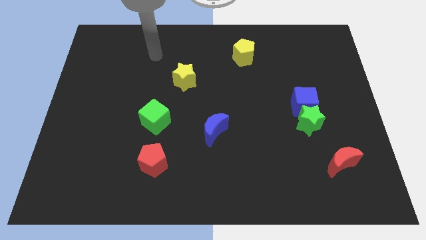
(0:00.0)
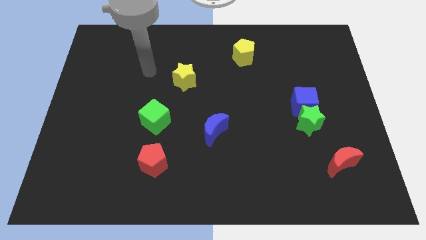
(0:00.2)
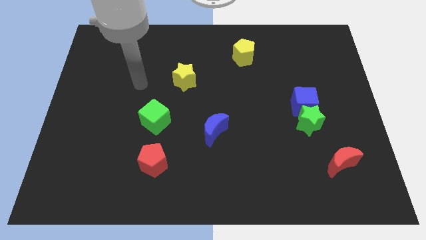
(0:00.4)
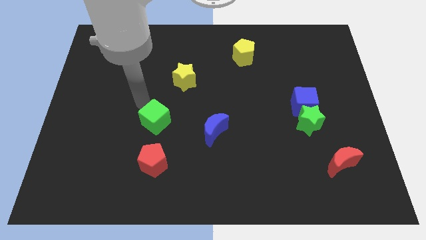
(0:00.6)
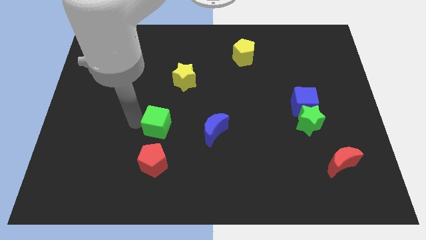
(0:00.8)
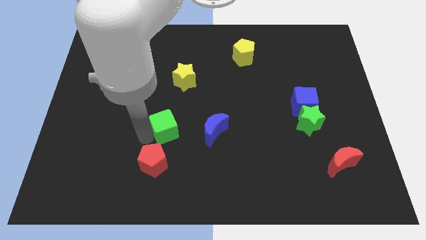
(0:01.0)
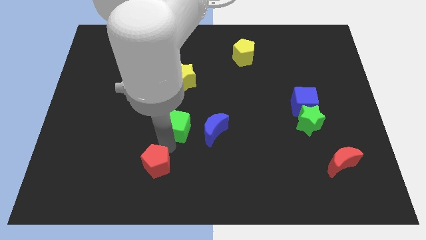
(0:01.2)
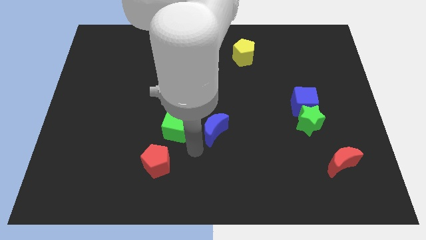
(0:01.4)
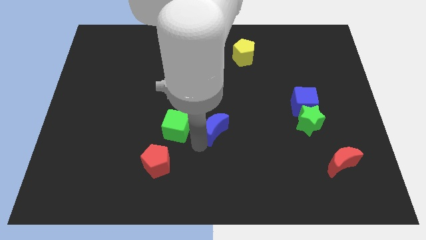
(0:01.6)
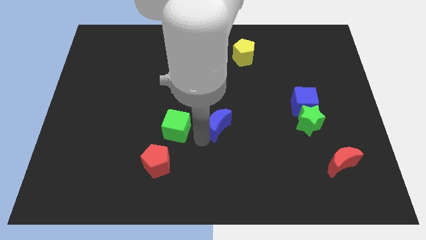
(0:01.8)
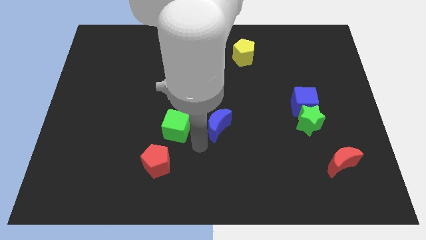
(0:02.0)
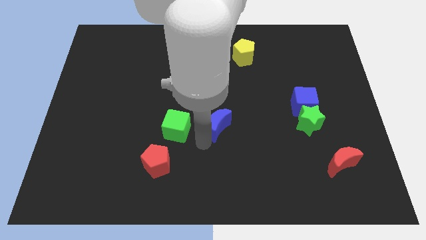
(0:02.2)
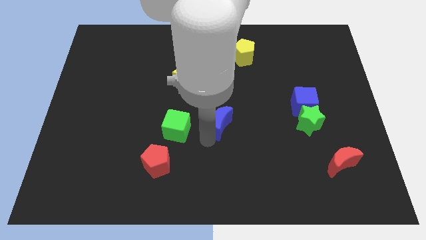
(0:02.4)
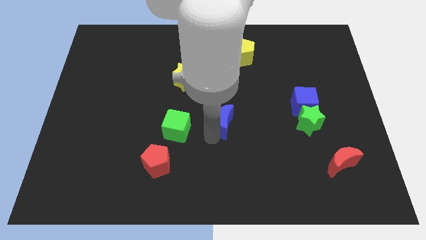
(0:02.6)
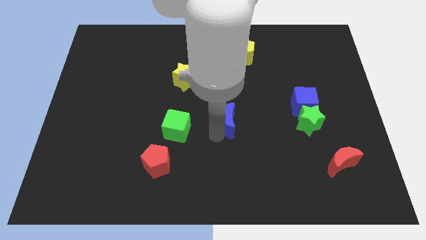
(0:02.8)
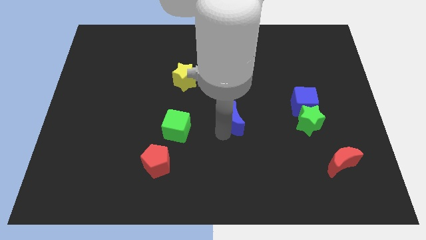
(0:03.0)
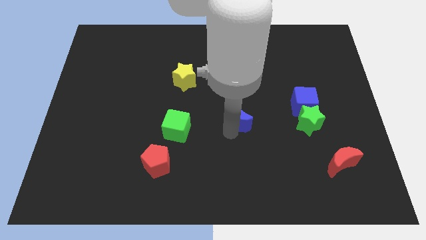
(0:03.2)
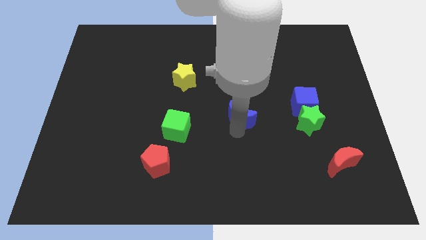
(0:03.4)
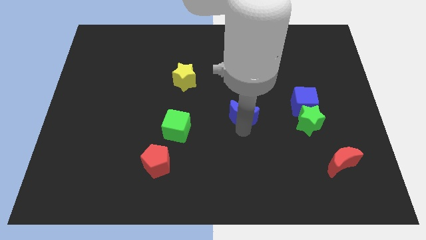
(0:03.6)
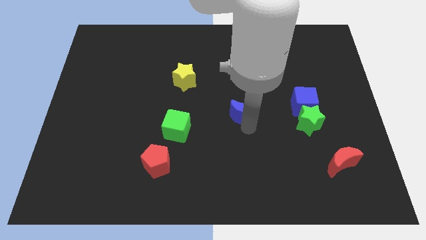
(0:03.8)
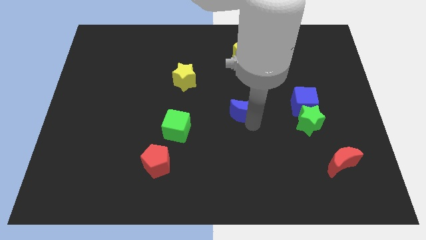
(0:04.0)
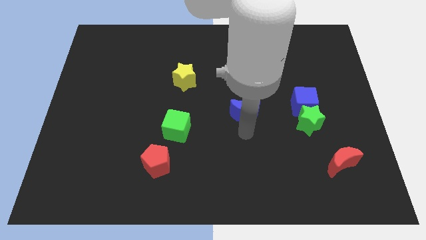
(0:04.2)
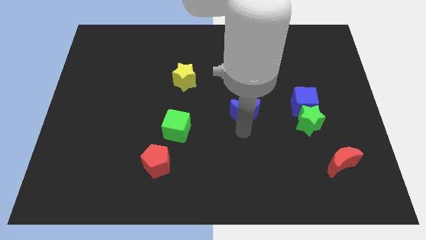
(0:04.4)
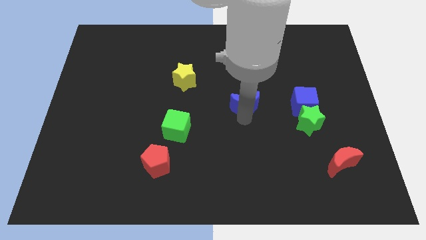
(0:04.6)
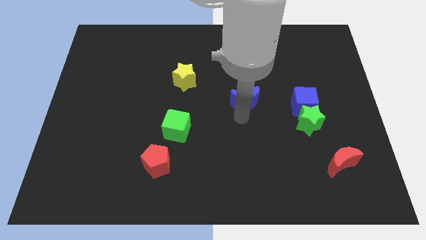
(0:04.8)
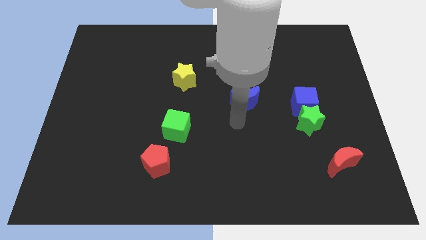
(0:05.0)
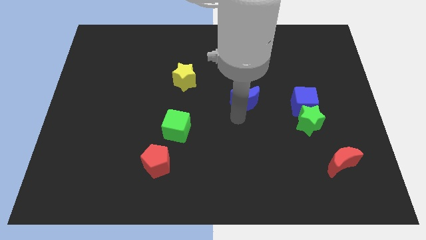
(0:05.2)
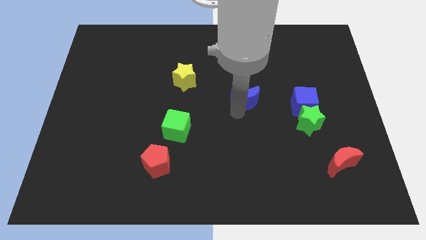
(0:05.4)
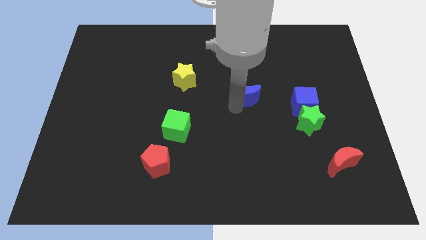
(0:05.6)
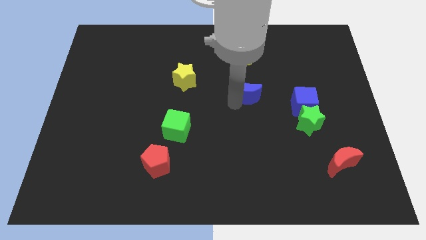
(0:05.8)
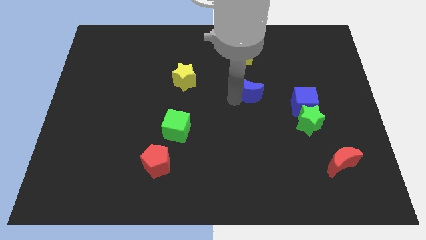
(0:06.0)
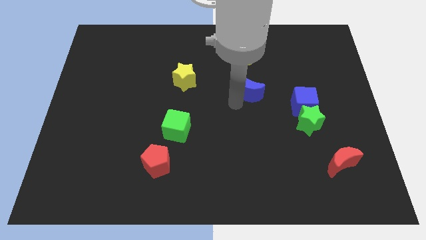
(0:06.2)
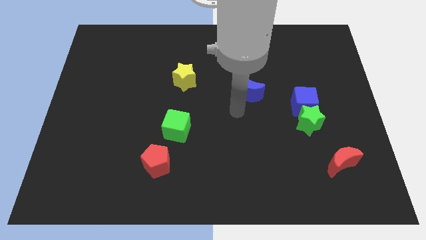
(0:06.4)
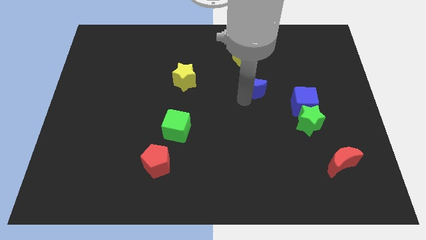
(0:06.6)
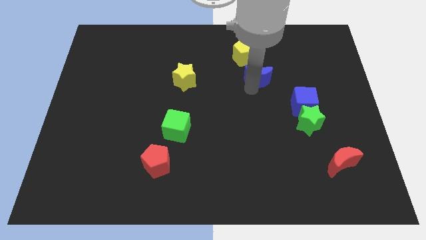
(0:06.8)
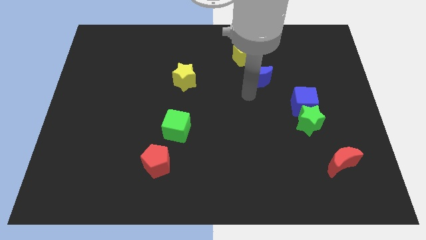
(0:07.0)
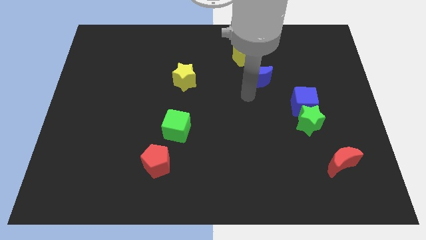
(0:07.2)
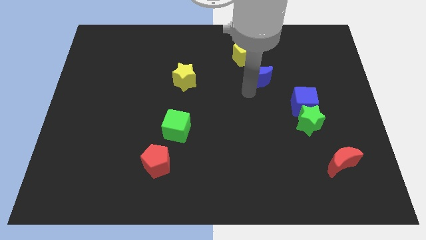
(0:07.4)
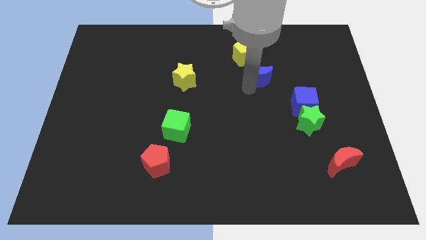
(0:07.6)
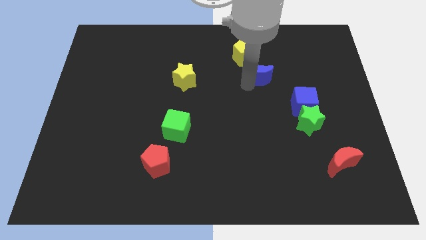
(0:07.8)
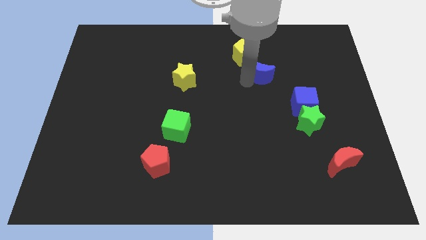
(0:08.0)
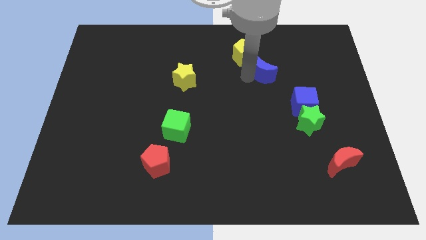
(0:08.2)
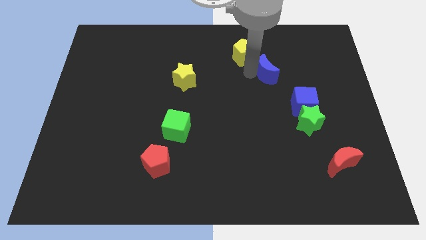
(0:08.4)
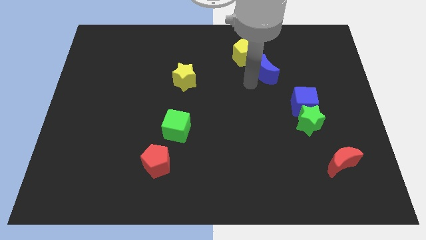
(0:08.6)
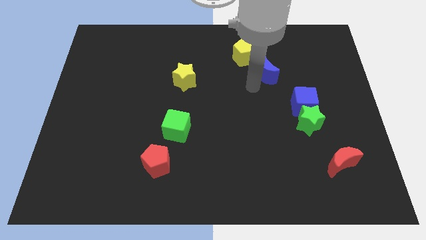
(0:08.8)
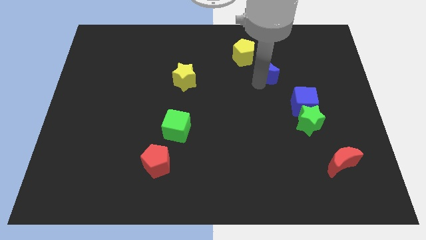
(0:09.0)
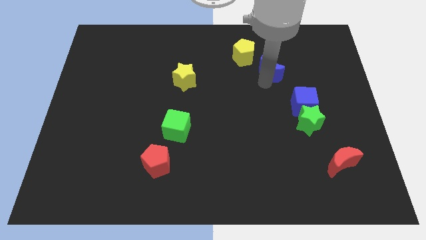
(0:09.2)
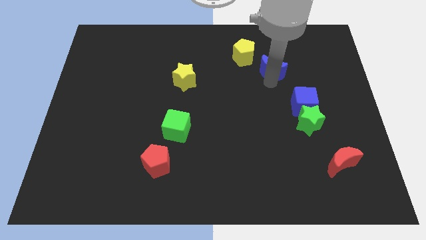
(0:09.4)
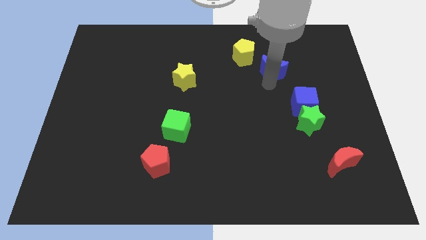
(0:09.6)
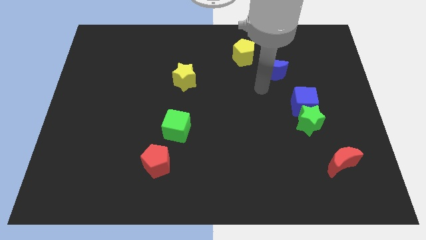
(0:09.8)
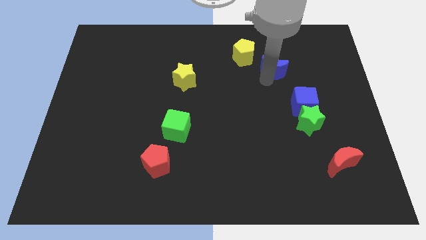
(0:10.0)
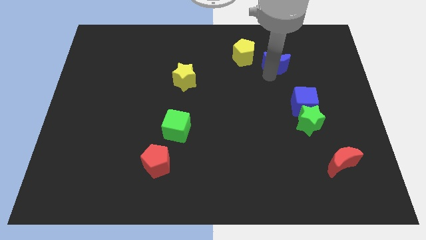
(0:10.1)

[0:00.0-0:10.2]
move the blue moon to the right side of the yellow pentagon

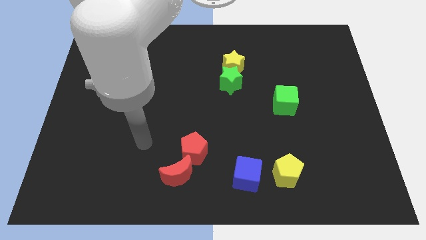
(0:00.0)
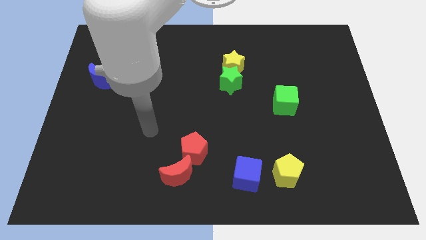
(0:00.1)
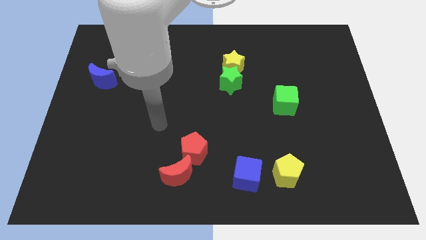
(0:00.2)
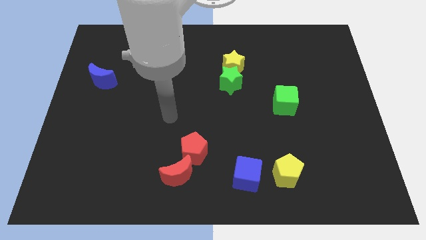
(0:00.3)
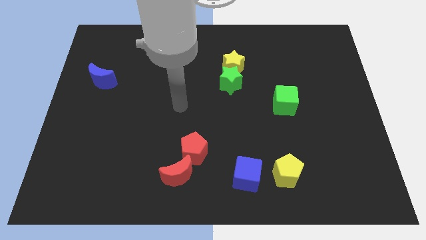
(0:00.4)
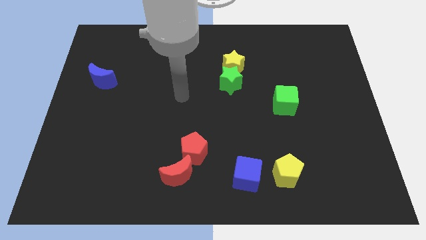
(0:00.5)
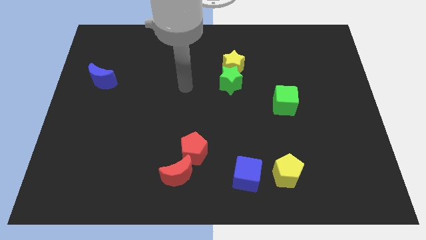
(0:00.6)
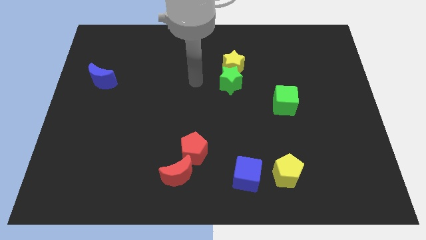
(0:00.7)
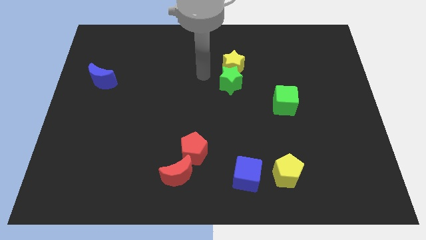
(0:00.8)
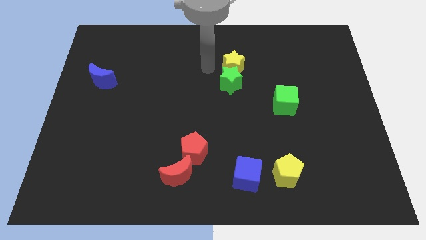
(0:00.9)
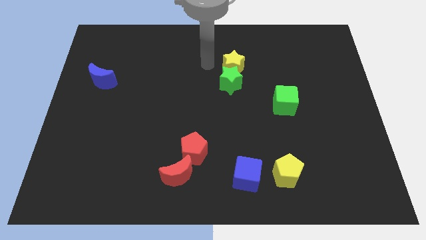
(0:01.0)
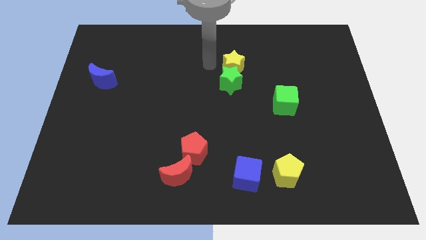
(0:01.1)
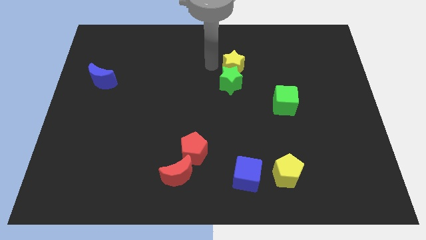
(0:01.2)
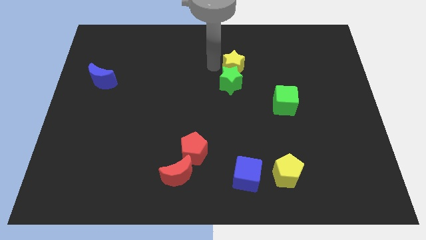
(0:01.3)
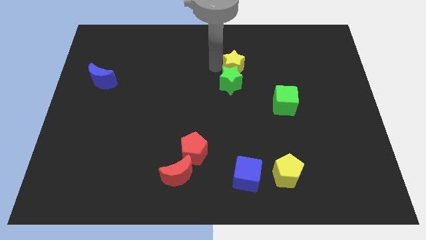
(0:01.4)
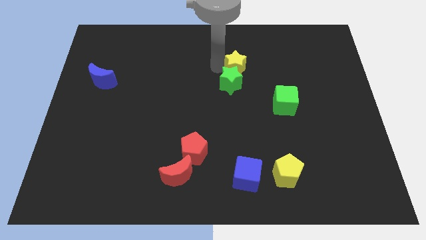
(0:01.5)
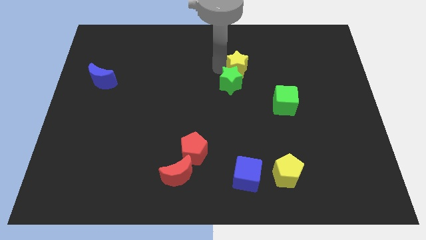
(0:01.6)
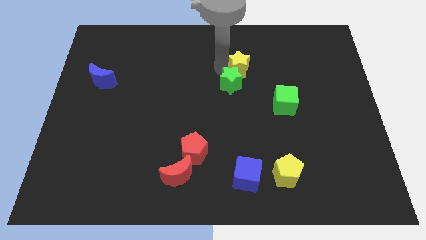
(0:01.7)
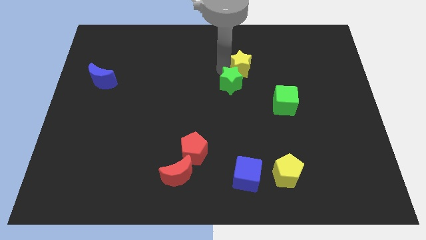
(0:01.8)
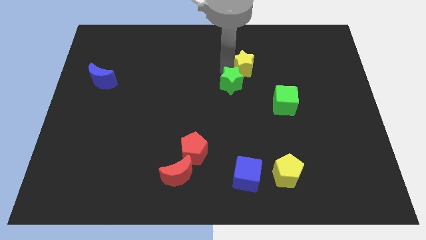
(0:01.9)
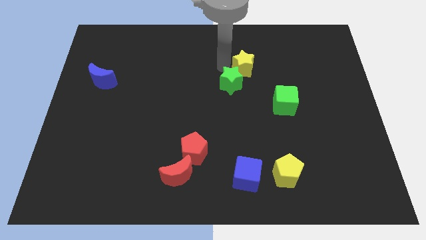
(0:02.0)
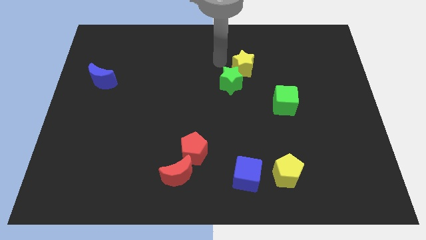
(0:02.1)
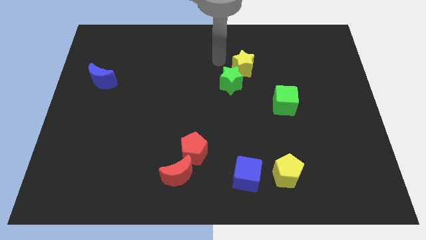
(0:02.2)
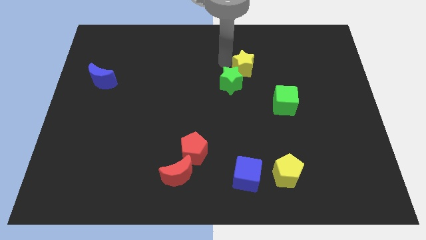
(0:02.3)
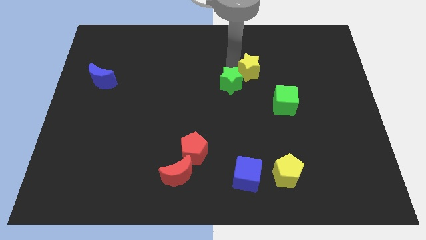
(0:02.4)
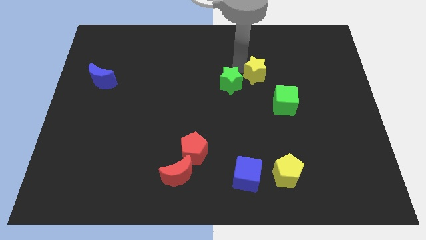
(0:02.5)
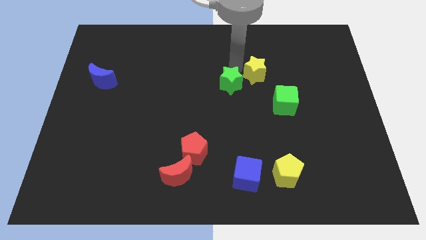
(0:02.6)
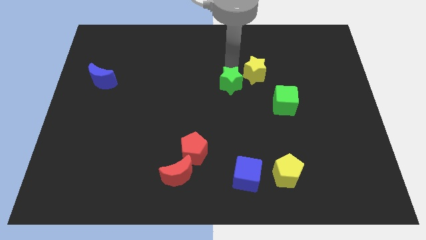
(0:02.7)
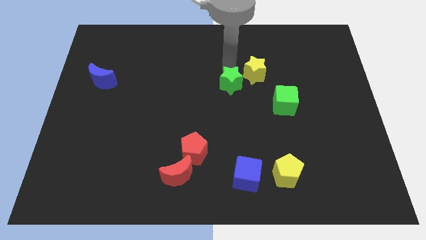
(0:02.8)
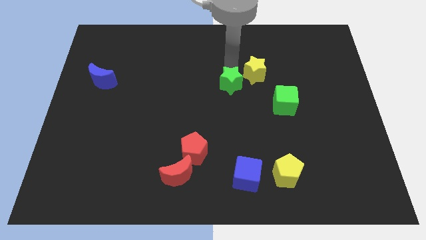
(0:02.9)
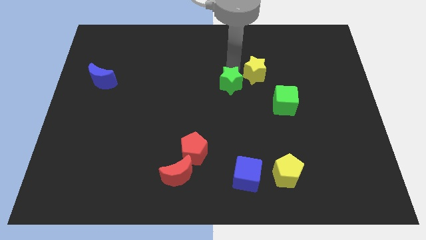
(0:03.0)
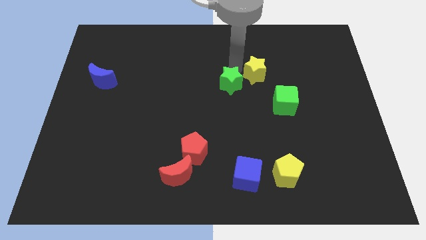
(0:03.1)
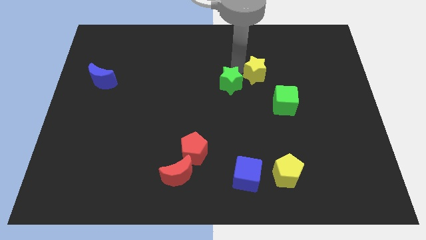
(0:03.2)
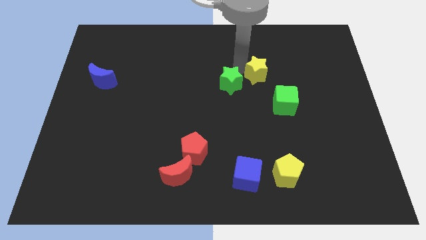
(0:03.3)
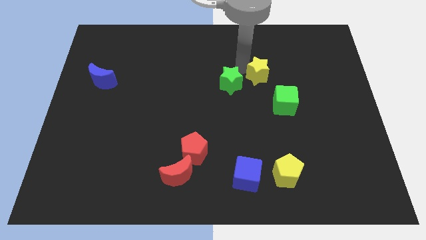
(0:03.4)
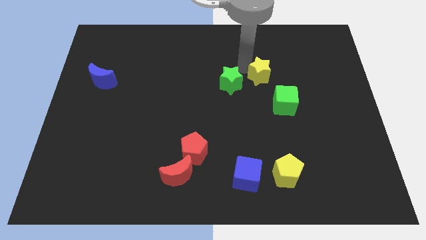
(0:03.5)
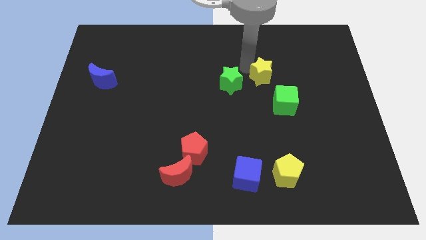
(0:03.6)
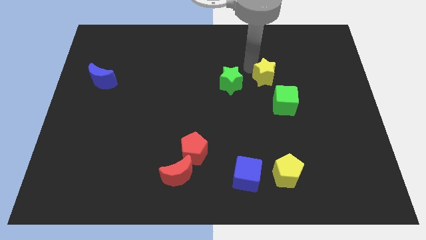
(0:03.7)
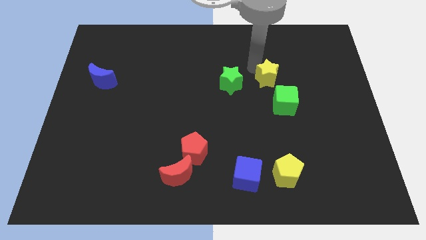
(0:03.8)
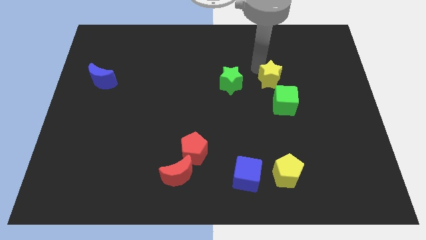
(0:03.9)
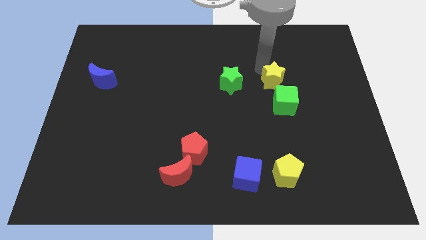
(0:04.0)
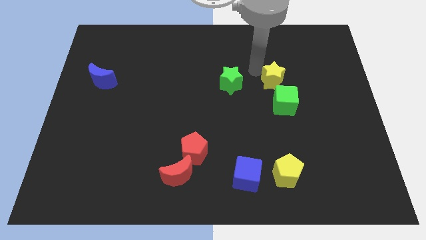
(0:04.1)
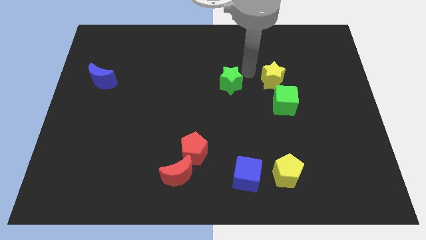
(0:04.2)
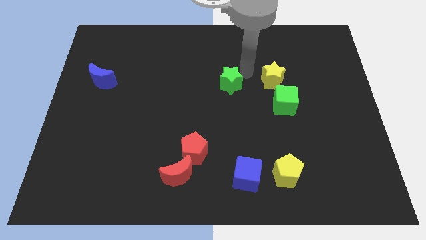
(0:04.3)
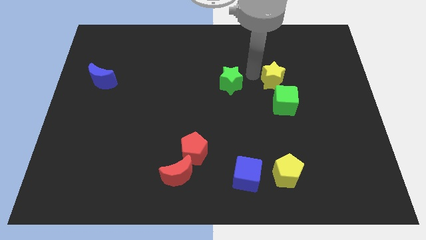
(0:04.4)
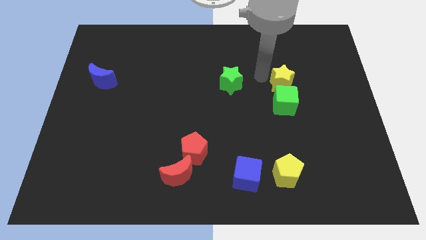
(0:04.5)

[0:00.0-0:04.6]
slide the yellow star diagonally up and to the right of the green cube
